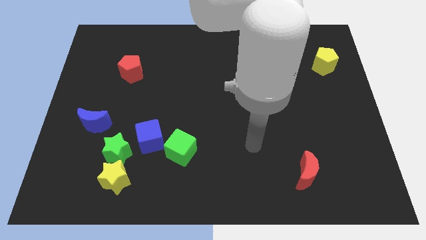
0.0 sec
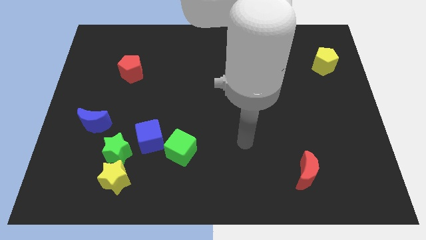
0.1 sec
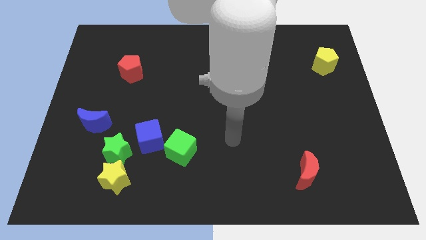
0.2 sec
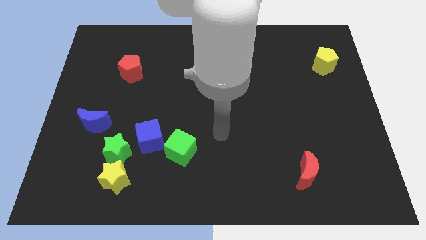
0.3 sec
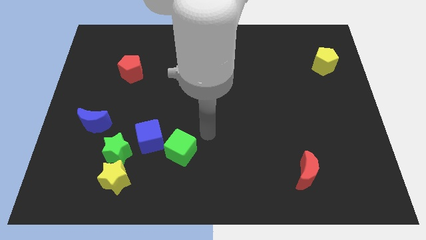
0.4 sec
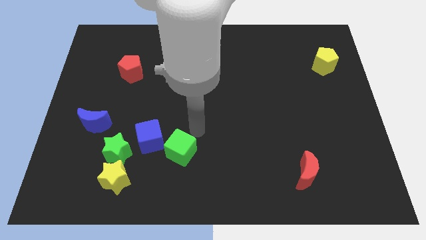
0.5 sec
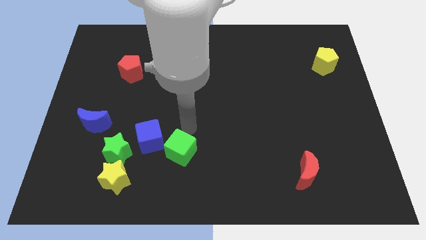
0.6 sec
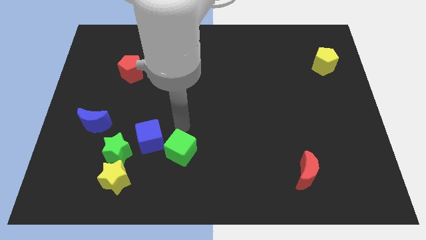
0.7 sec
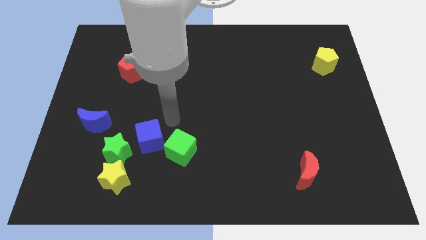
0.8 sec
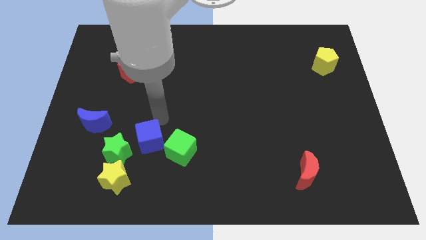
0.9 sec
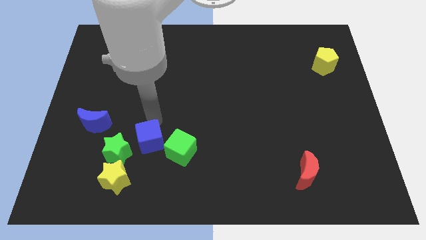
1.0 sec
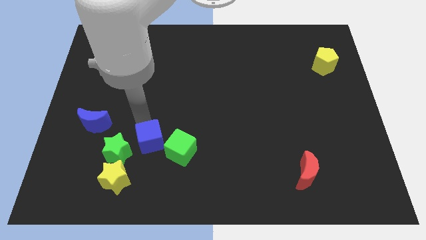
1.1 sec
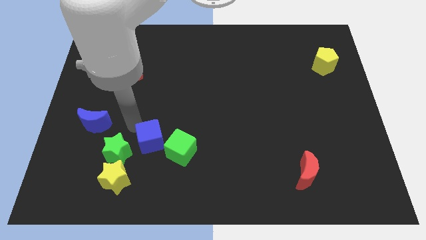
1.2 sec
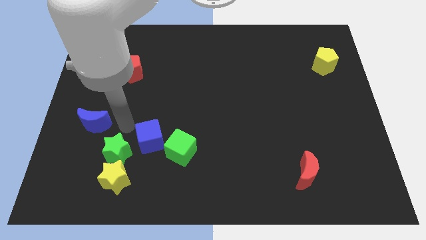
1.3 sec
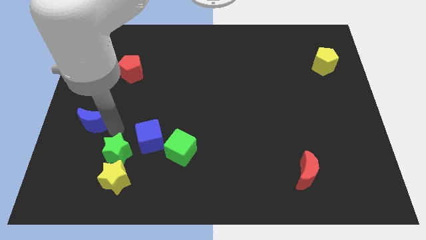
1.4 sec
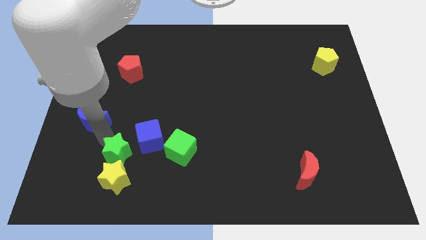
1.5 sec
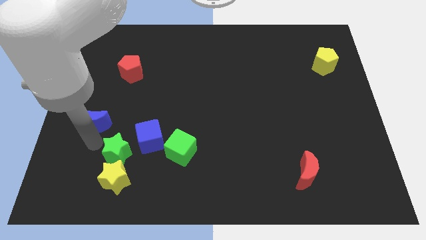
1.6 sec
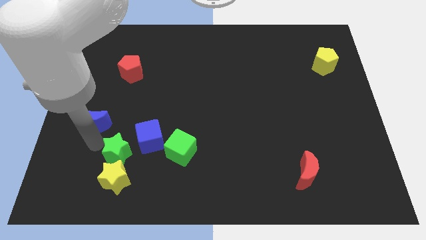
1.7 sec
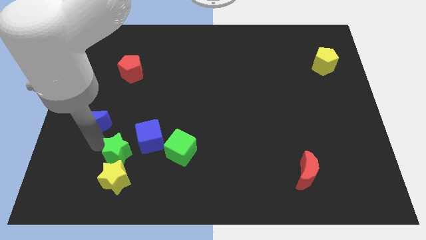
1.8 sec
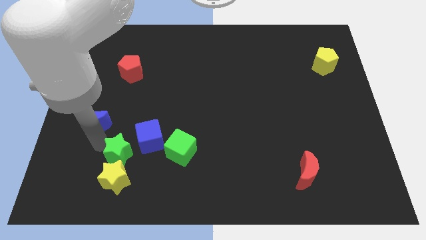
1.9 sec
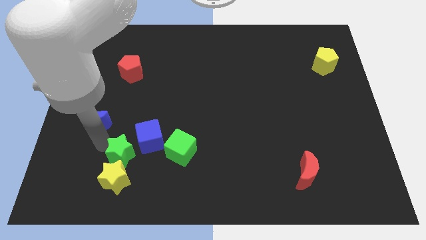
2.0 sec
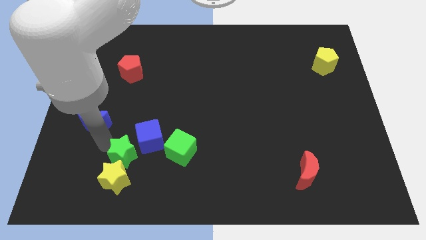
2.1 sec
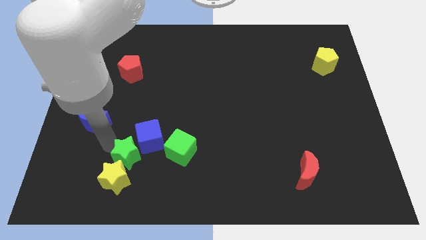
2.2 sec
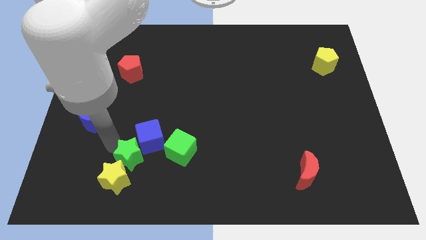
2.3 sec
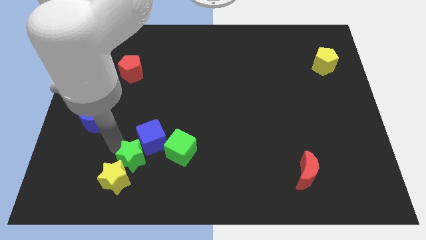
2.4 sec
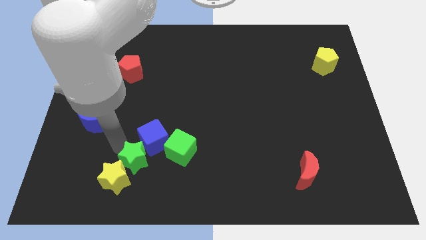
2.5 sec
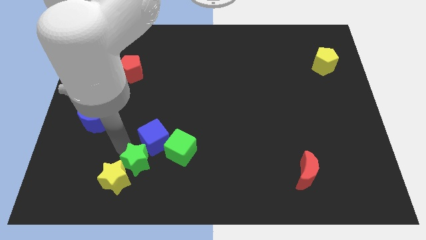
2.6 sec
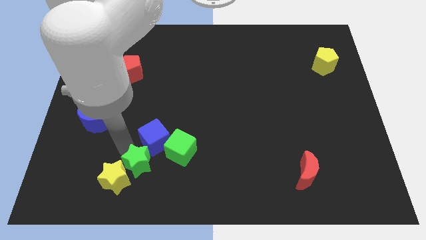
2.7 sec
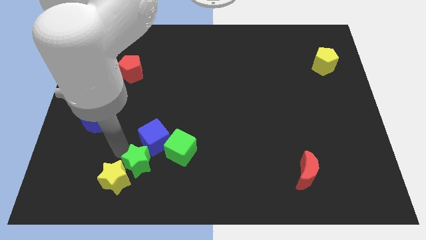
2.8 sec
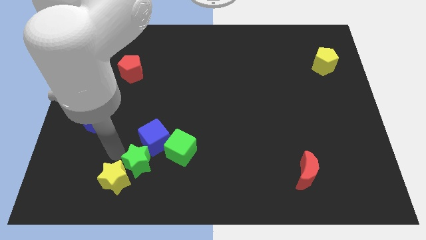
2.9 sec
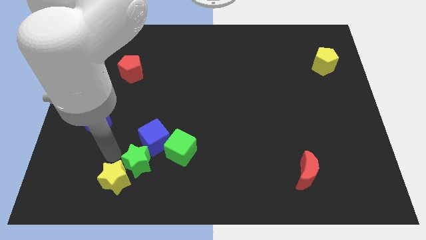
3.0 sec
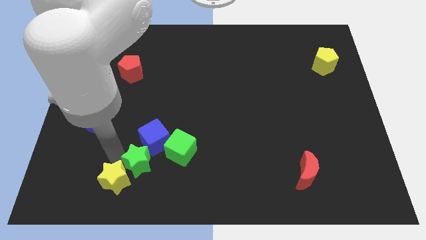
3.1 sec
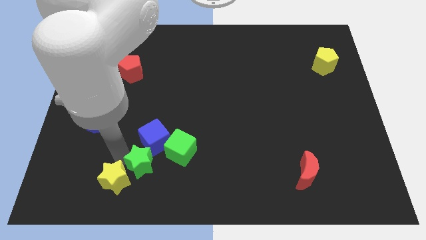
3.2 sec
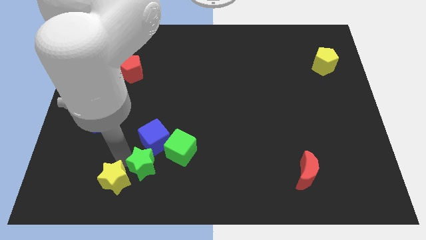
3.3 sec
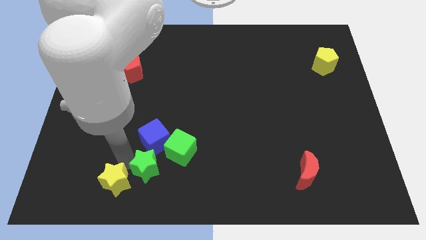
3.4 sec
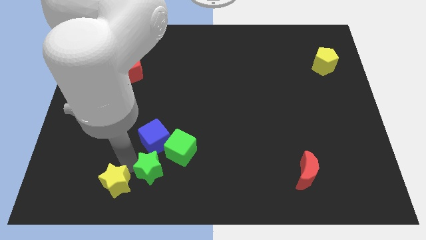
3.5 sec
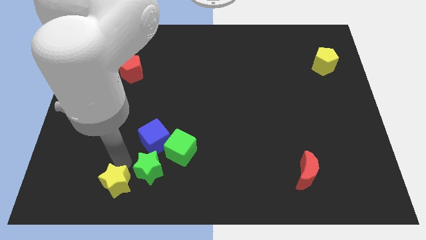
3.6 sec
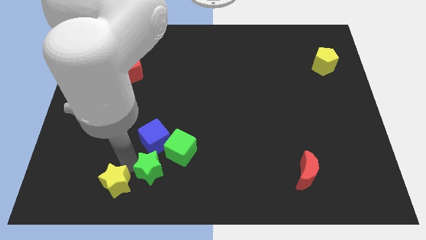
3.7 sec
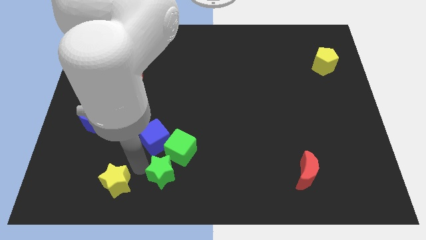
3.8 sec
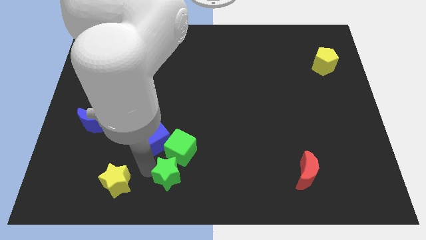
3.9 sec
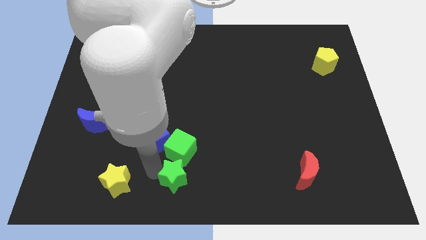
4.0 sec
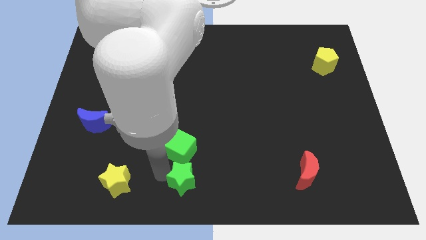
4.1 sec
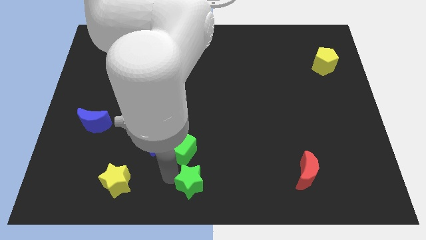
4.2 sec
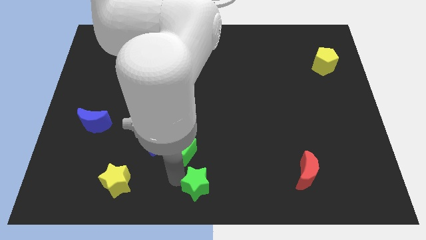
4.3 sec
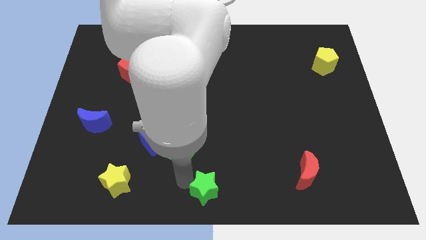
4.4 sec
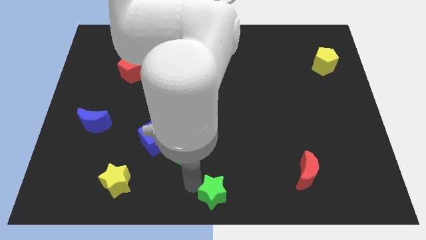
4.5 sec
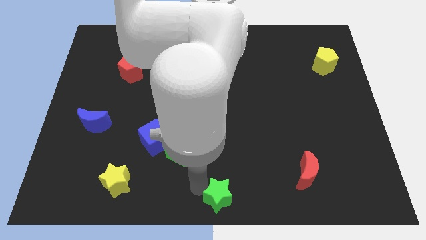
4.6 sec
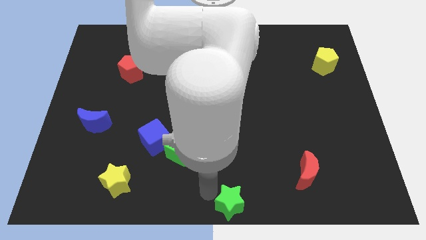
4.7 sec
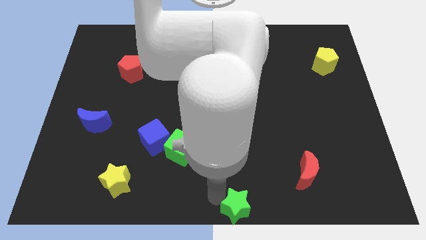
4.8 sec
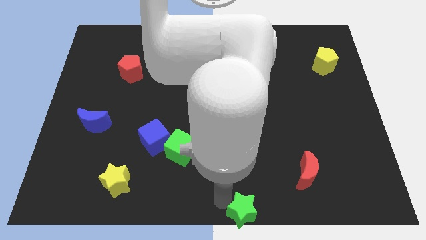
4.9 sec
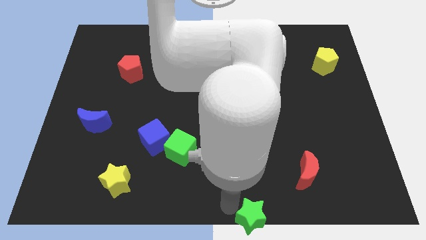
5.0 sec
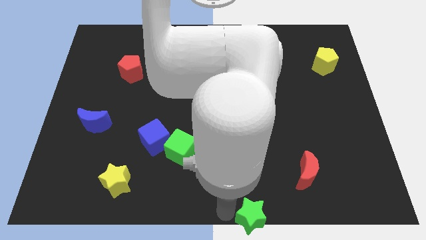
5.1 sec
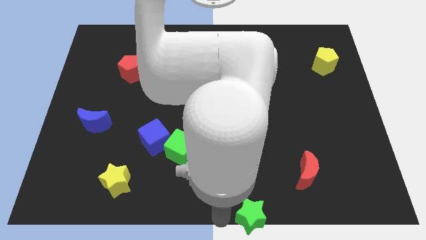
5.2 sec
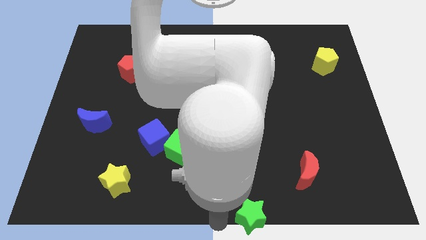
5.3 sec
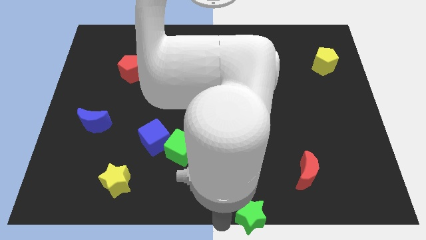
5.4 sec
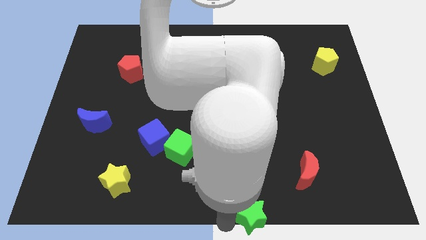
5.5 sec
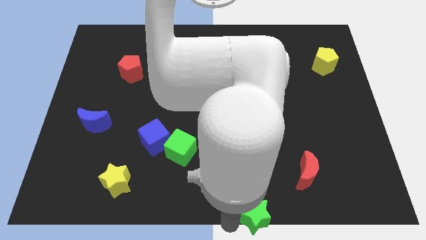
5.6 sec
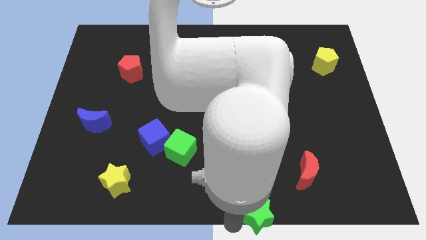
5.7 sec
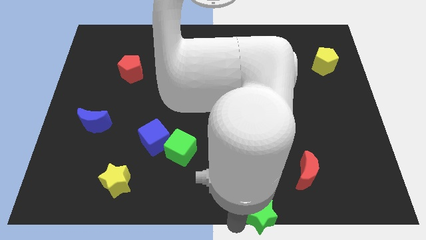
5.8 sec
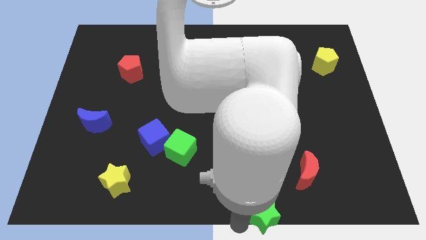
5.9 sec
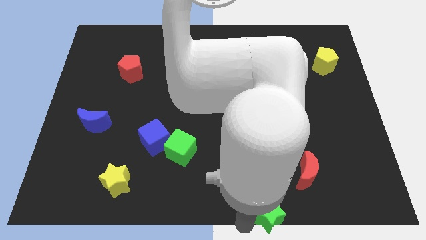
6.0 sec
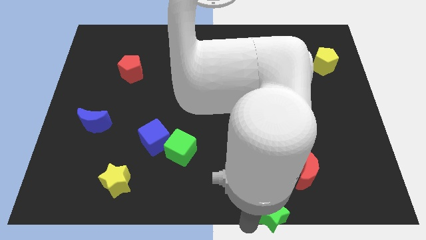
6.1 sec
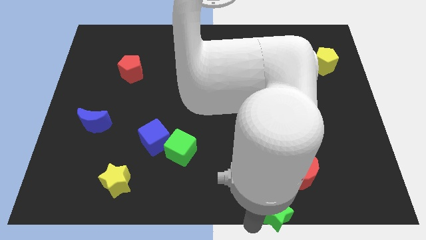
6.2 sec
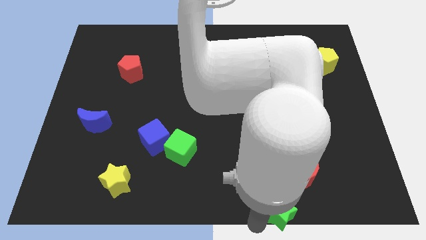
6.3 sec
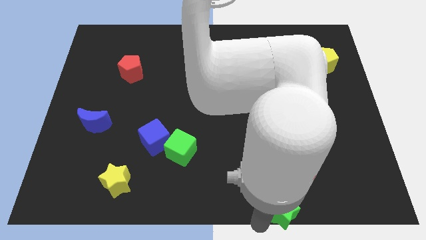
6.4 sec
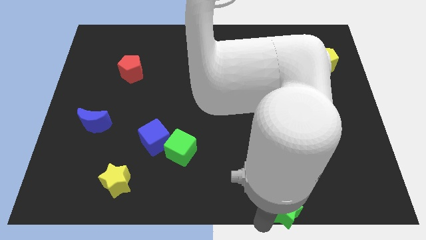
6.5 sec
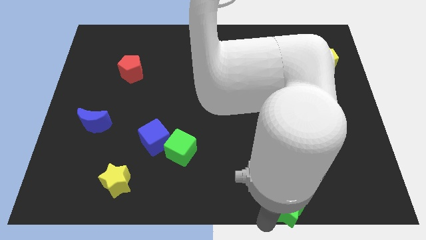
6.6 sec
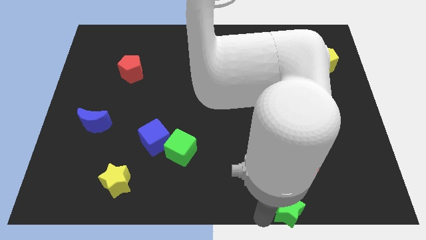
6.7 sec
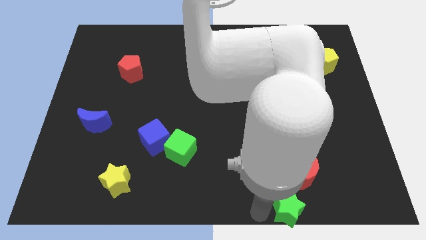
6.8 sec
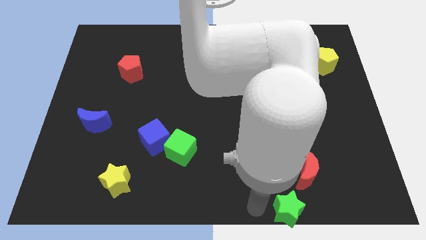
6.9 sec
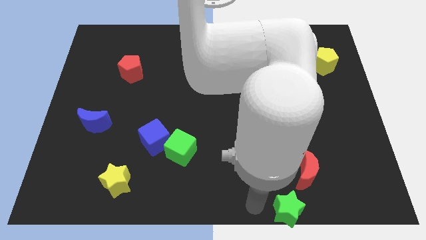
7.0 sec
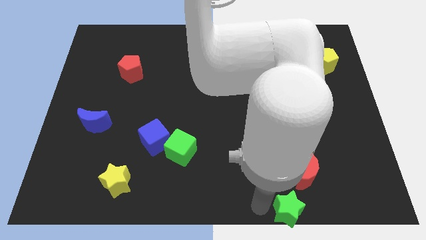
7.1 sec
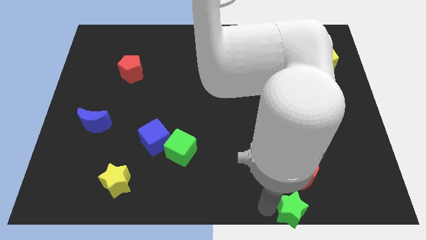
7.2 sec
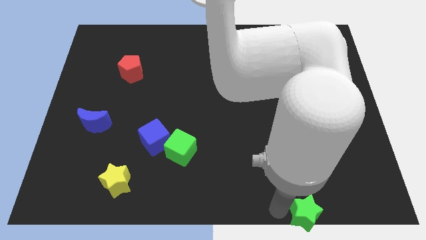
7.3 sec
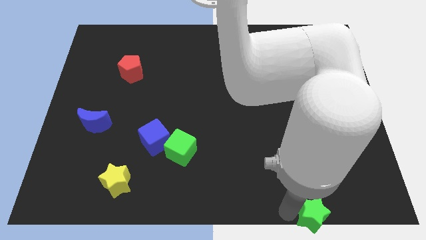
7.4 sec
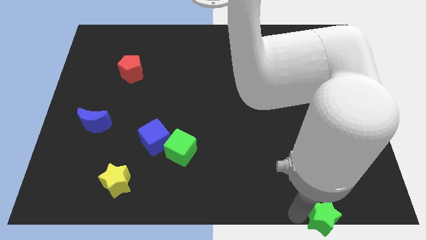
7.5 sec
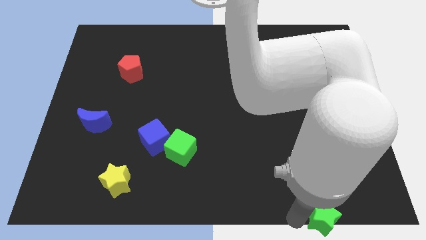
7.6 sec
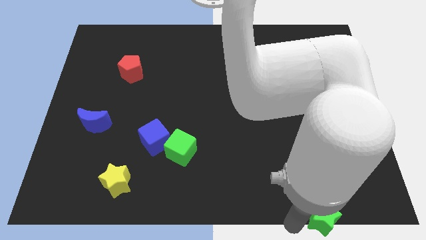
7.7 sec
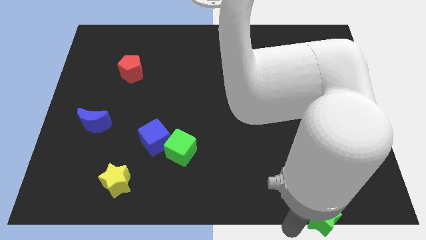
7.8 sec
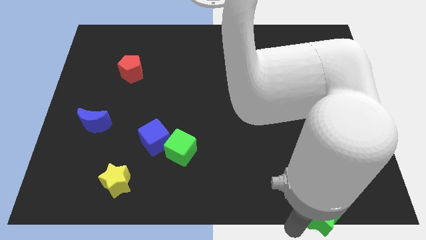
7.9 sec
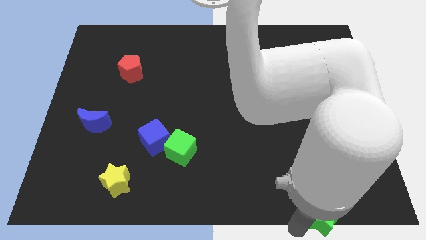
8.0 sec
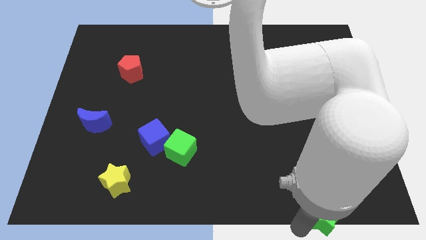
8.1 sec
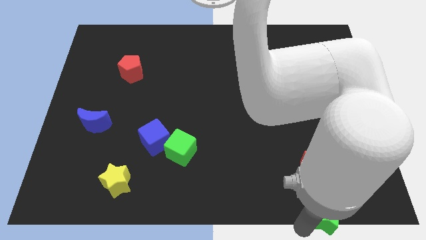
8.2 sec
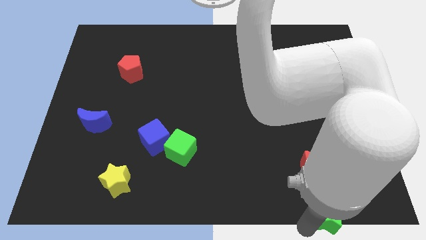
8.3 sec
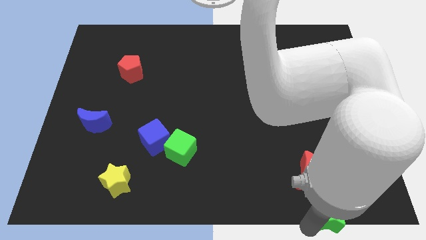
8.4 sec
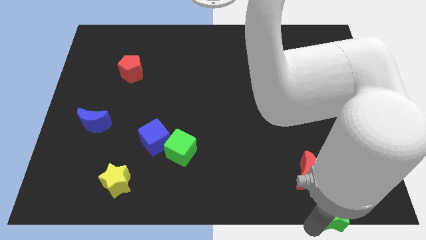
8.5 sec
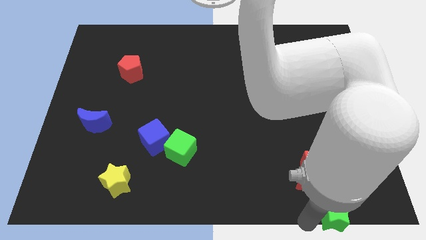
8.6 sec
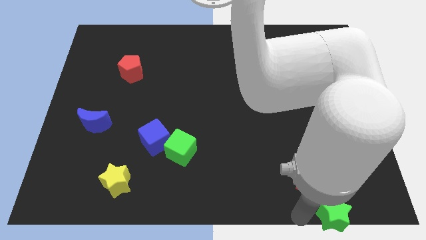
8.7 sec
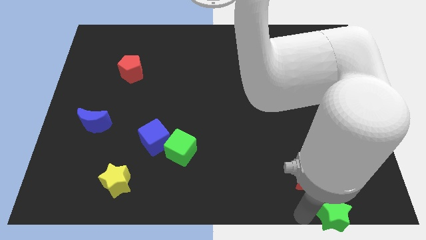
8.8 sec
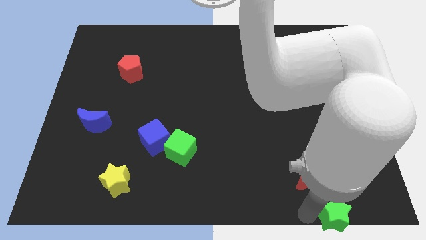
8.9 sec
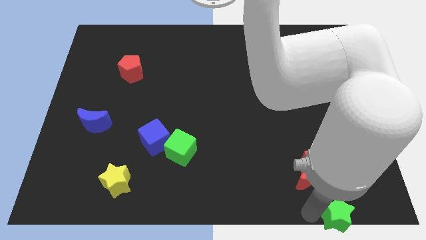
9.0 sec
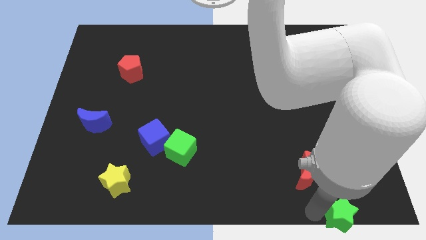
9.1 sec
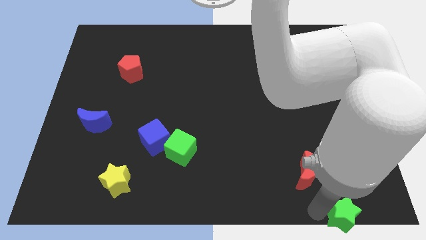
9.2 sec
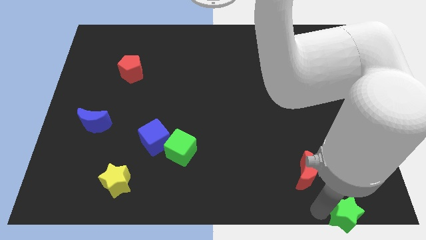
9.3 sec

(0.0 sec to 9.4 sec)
put the green star to the bottom right of the board
